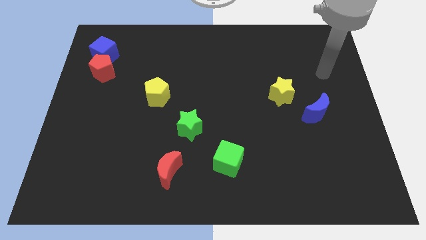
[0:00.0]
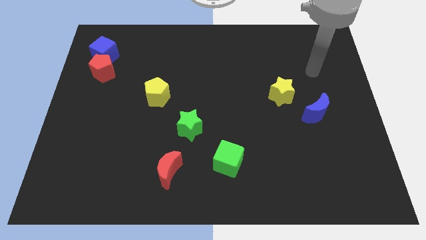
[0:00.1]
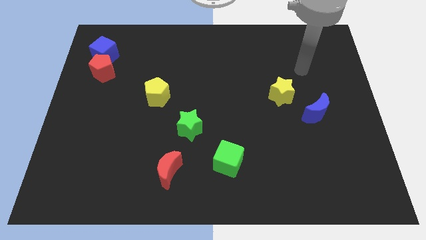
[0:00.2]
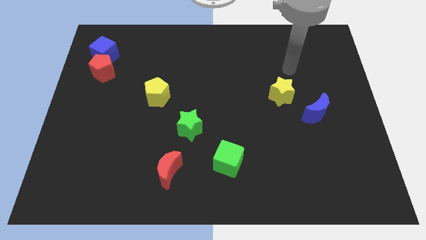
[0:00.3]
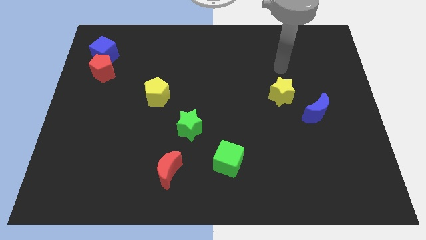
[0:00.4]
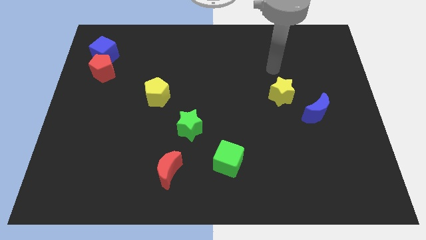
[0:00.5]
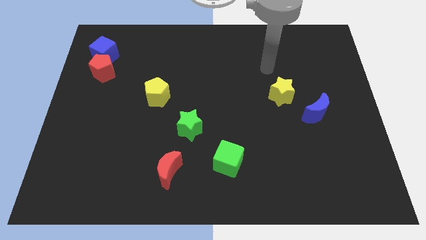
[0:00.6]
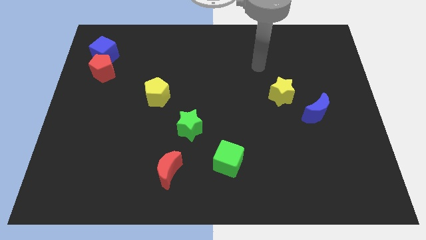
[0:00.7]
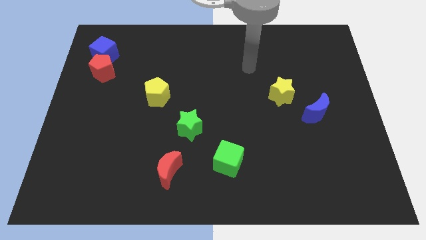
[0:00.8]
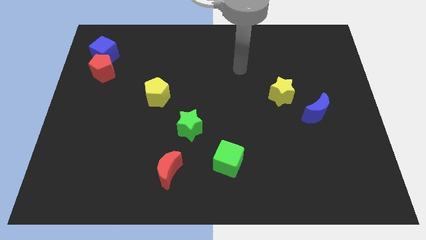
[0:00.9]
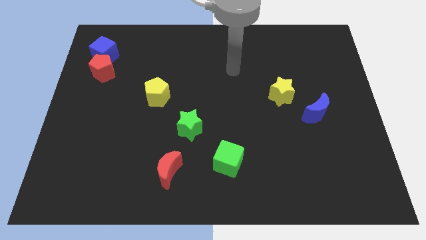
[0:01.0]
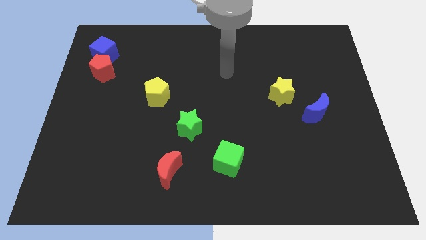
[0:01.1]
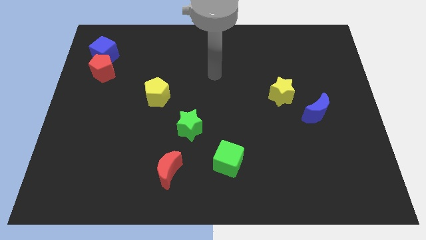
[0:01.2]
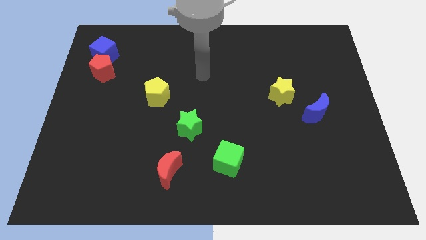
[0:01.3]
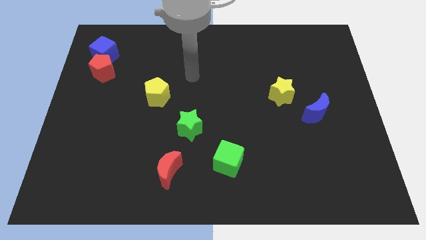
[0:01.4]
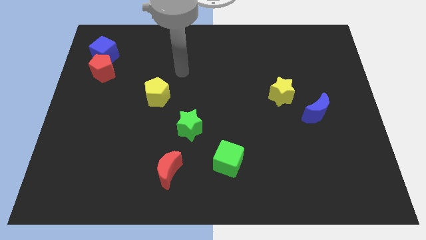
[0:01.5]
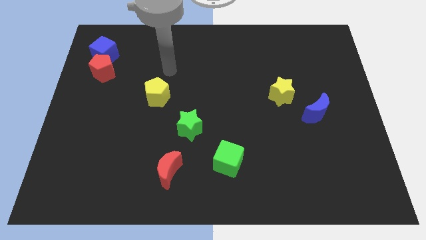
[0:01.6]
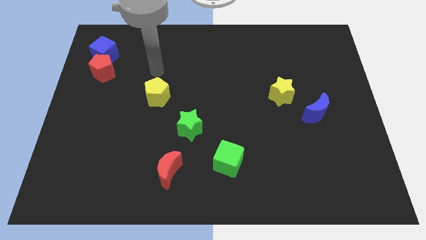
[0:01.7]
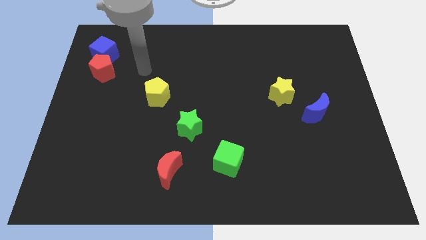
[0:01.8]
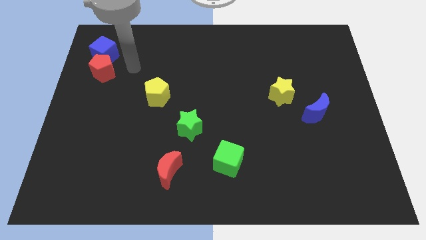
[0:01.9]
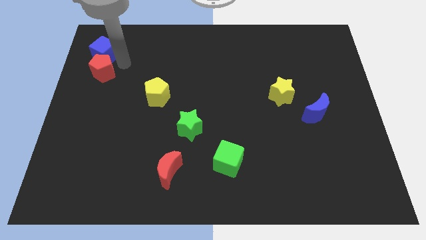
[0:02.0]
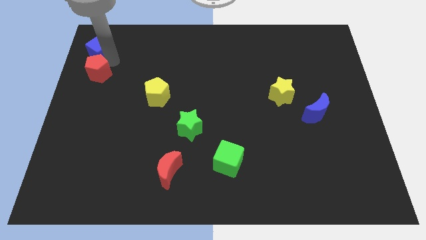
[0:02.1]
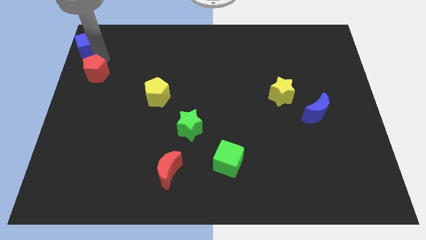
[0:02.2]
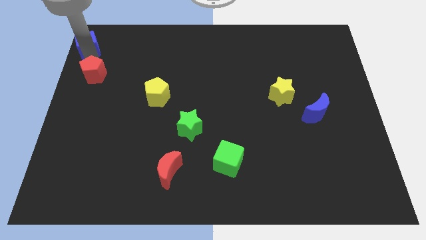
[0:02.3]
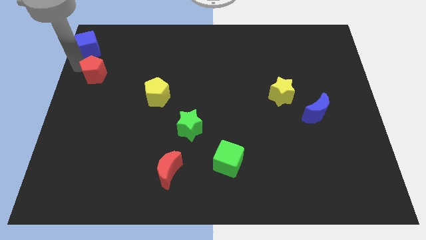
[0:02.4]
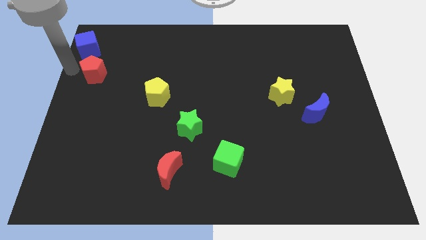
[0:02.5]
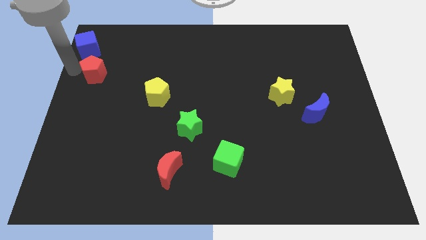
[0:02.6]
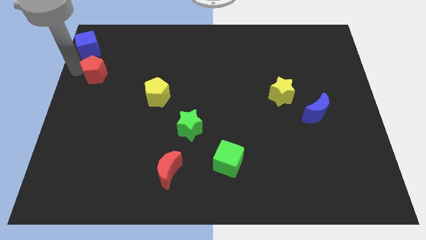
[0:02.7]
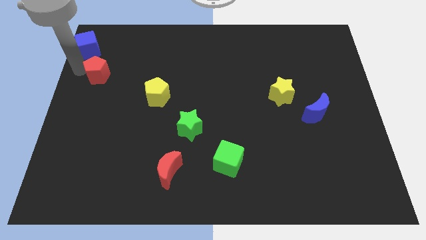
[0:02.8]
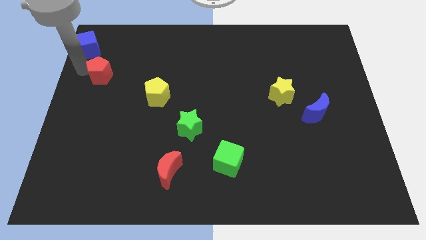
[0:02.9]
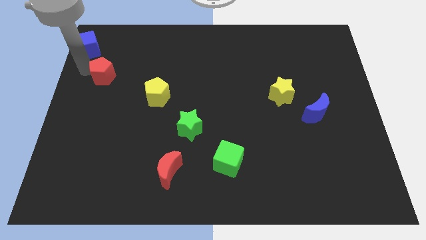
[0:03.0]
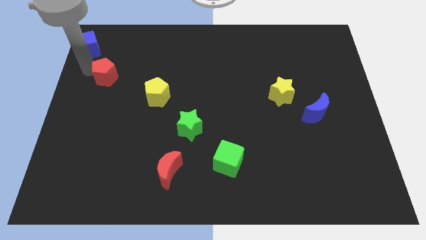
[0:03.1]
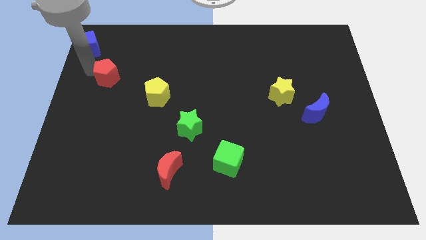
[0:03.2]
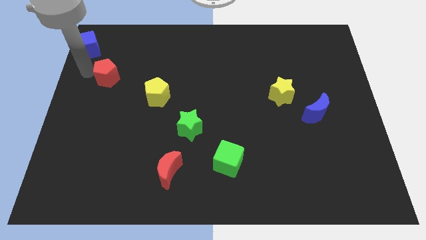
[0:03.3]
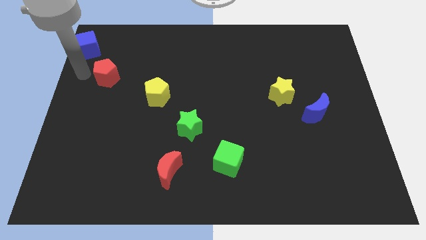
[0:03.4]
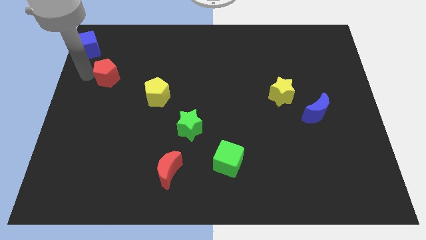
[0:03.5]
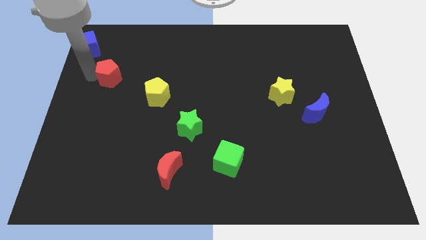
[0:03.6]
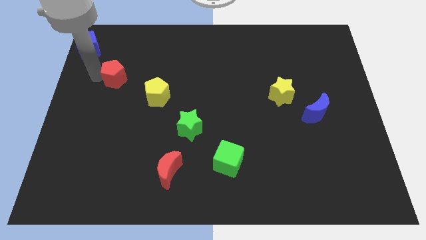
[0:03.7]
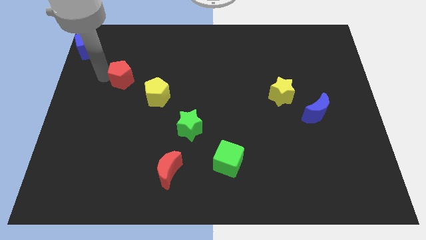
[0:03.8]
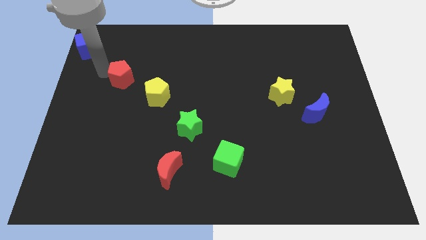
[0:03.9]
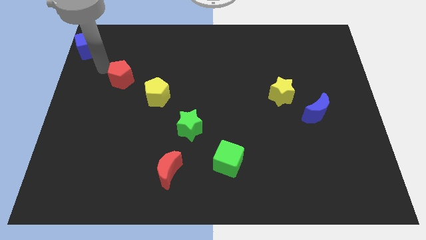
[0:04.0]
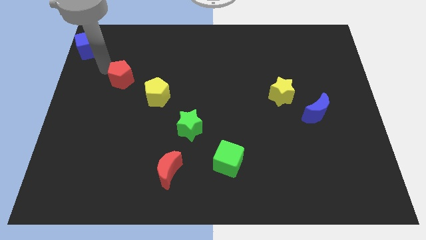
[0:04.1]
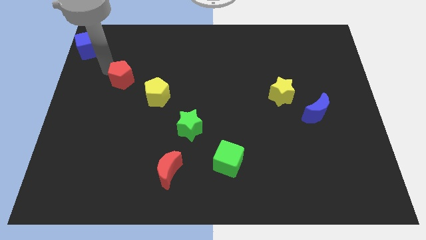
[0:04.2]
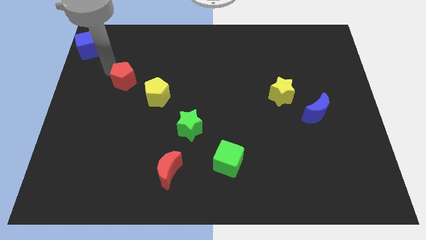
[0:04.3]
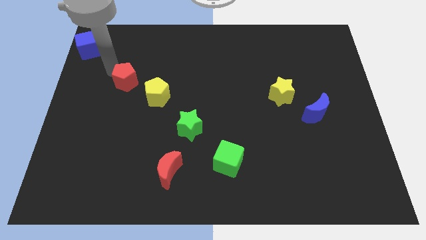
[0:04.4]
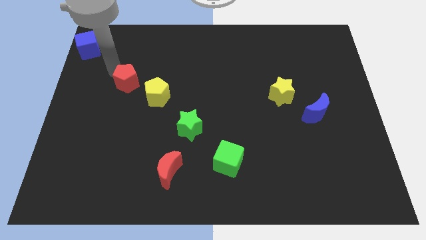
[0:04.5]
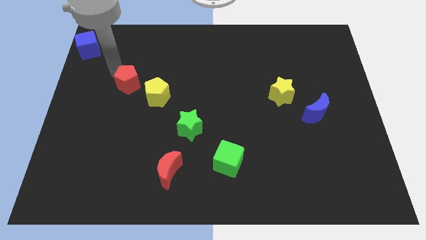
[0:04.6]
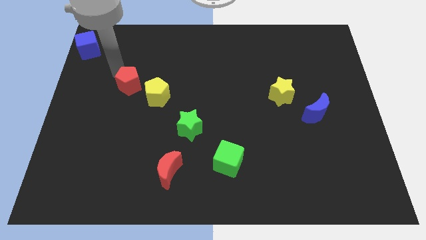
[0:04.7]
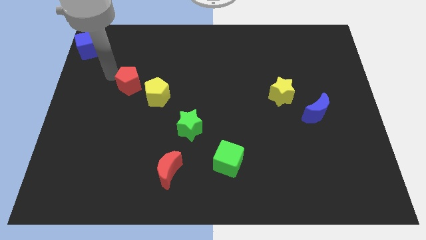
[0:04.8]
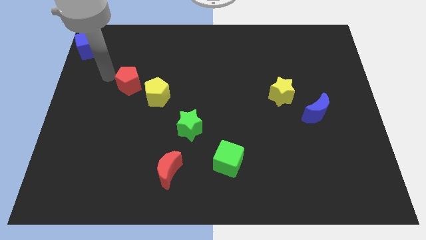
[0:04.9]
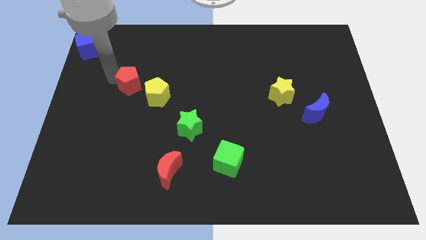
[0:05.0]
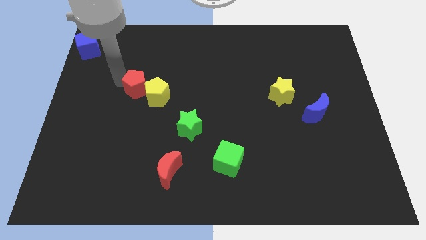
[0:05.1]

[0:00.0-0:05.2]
put the red pentagon towards the yellow pentagon

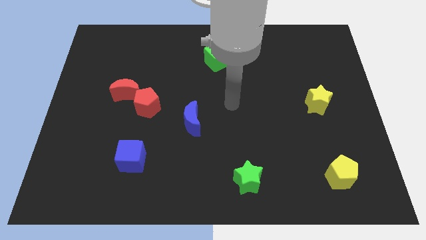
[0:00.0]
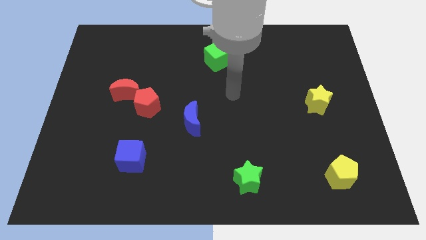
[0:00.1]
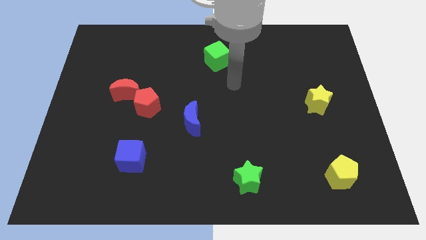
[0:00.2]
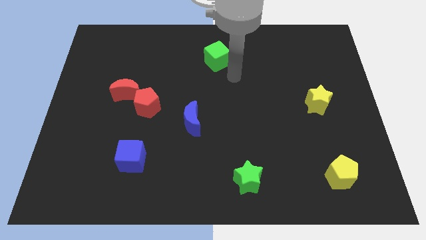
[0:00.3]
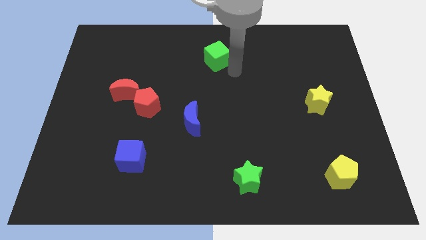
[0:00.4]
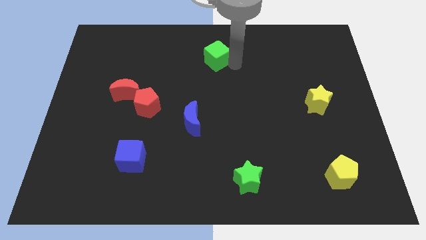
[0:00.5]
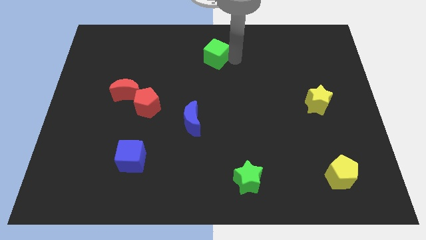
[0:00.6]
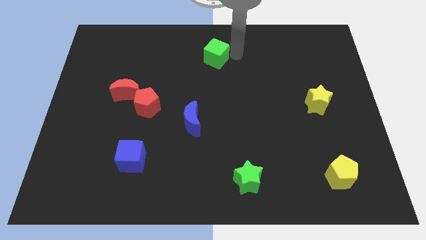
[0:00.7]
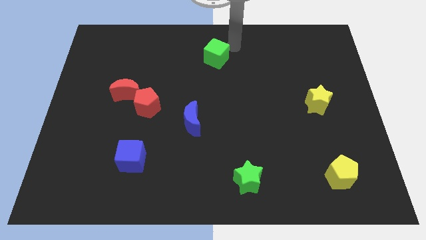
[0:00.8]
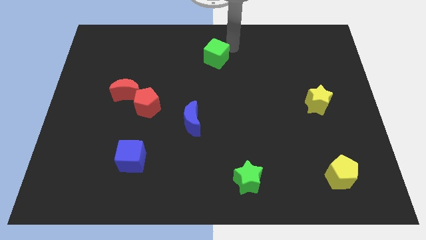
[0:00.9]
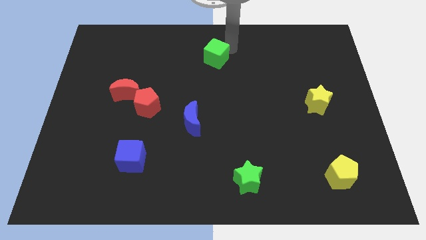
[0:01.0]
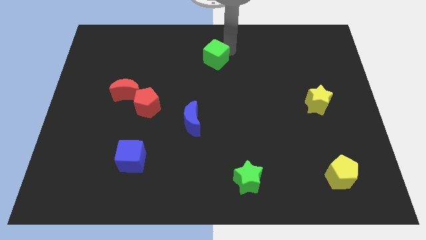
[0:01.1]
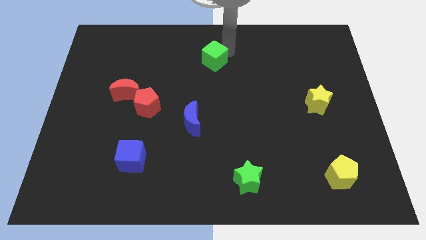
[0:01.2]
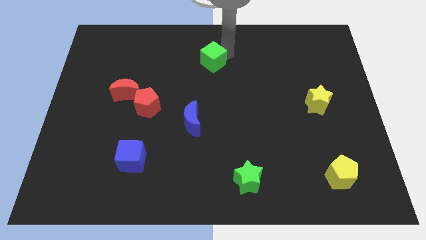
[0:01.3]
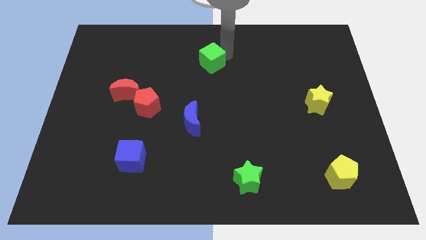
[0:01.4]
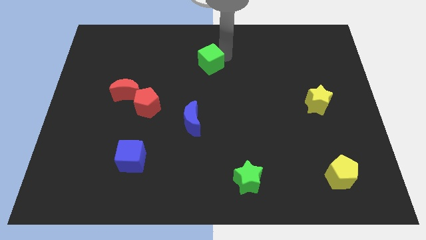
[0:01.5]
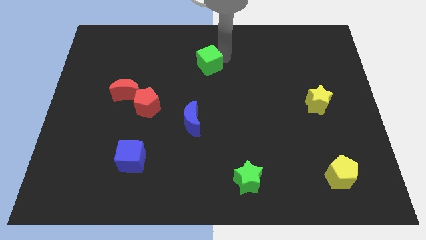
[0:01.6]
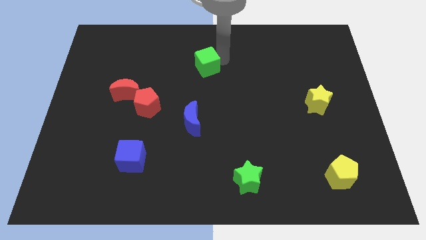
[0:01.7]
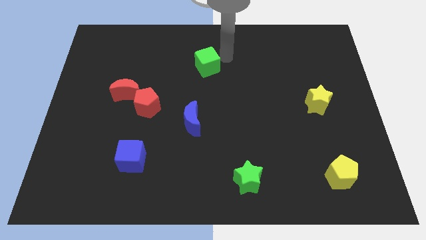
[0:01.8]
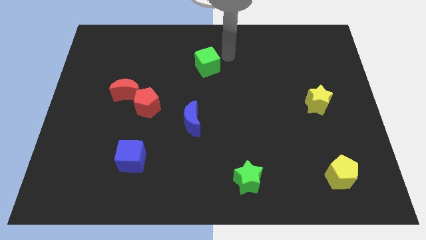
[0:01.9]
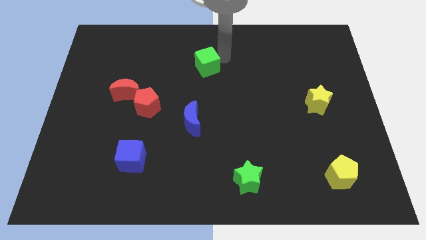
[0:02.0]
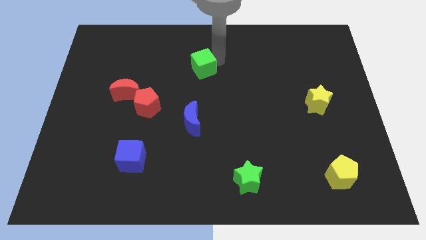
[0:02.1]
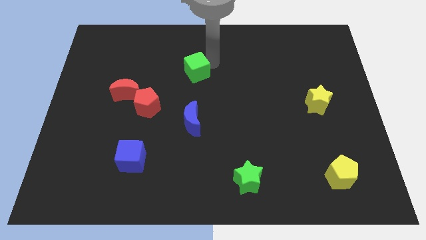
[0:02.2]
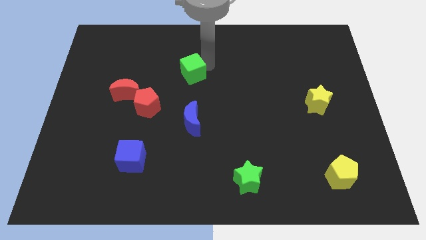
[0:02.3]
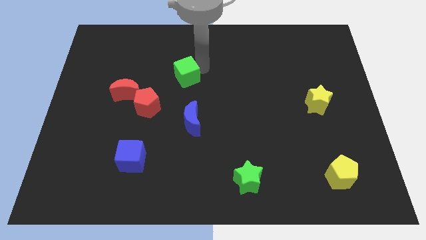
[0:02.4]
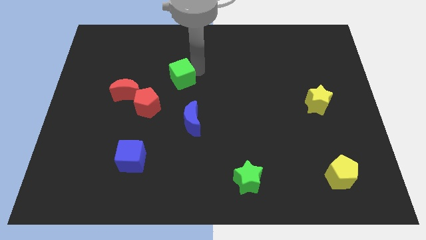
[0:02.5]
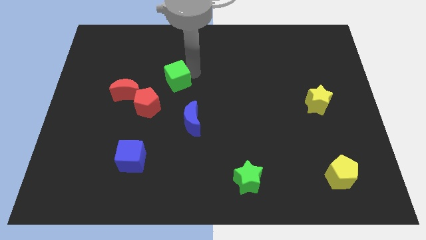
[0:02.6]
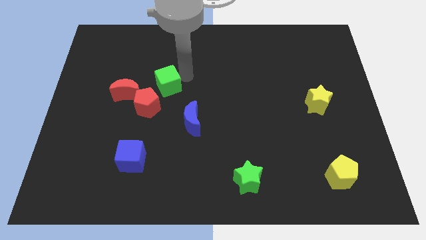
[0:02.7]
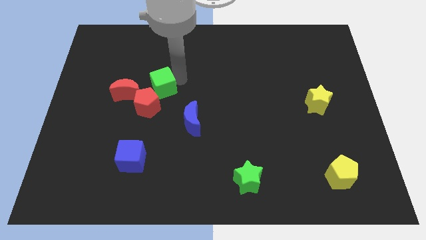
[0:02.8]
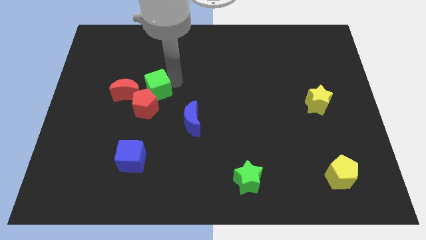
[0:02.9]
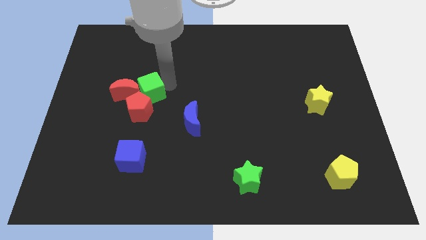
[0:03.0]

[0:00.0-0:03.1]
slide the green cube next to the red moon
